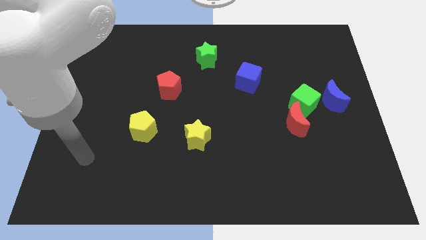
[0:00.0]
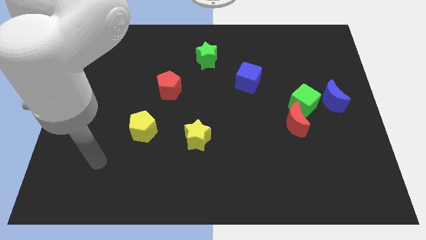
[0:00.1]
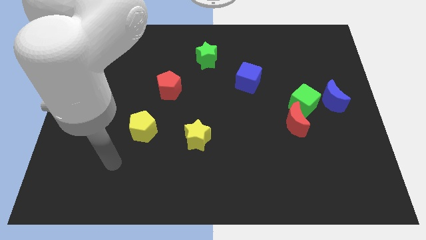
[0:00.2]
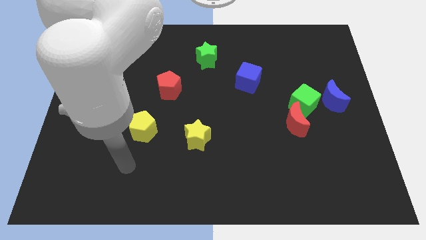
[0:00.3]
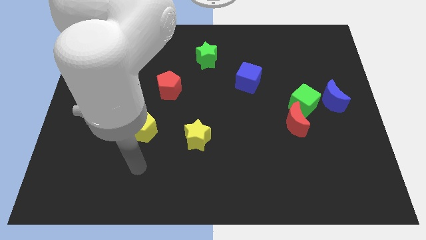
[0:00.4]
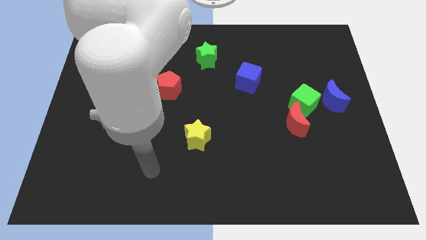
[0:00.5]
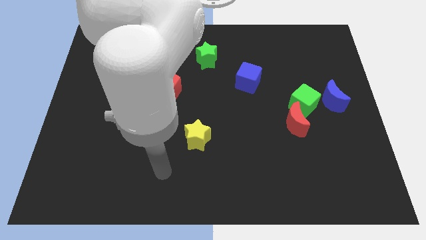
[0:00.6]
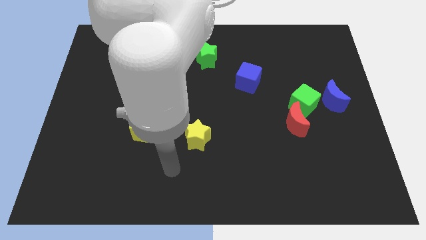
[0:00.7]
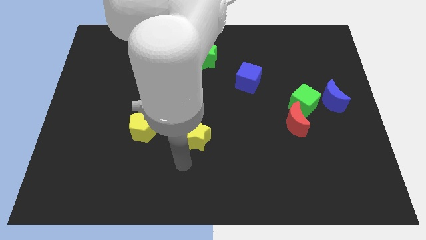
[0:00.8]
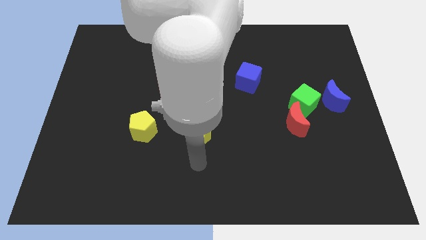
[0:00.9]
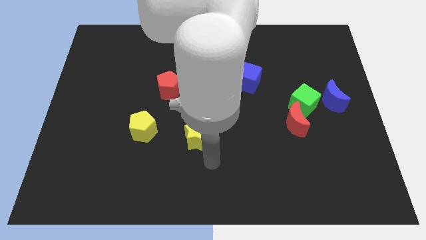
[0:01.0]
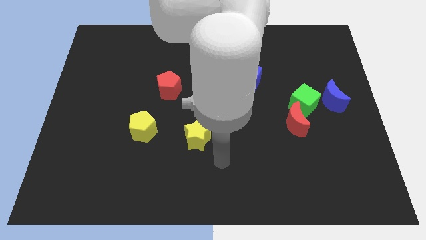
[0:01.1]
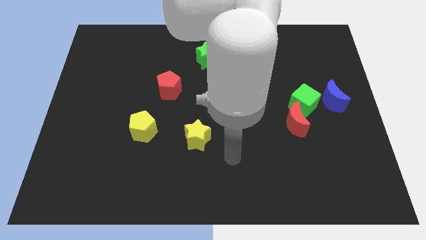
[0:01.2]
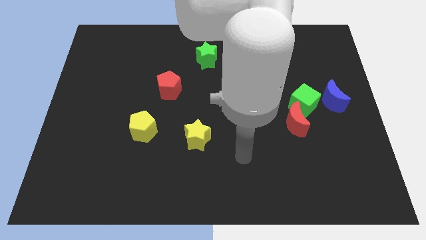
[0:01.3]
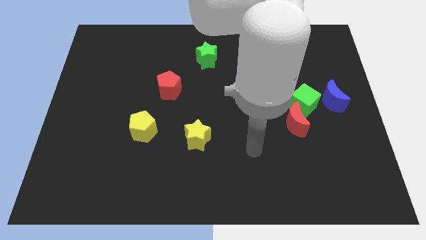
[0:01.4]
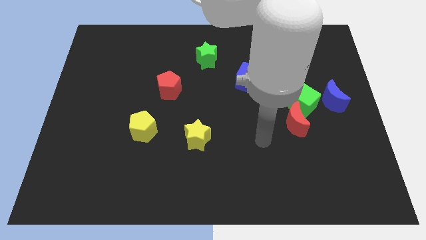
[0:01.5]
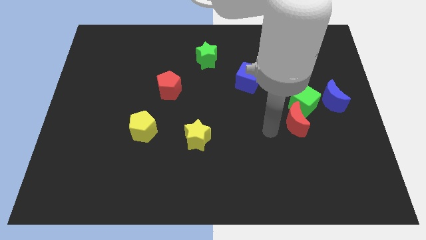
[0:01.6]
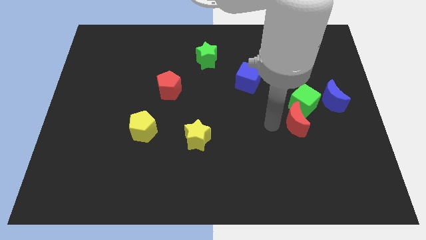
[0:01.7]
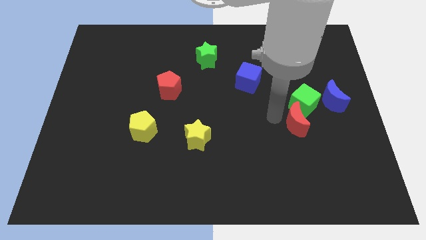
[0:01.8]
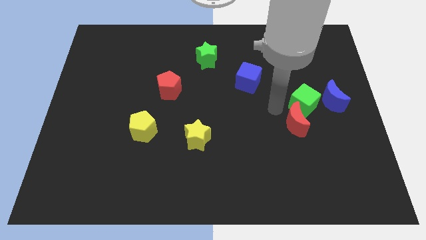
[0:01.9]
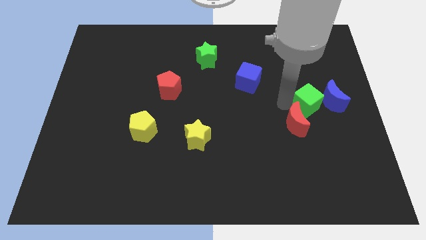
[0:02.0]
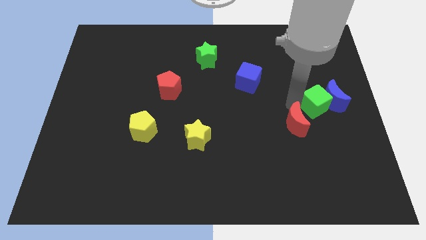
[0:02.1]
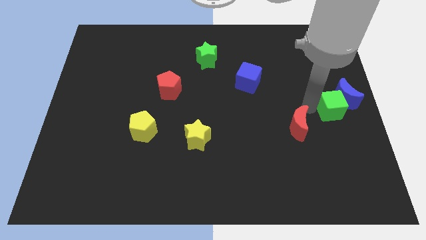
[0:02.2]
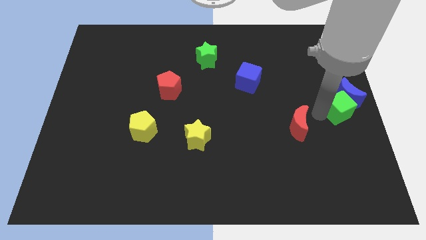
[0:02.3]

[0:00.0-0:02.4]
separate the red moon from the green cube

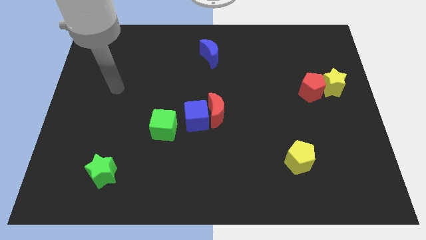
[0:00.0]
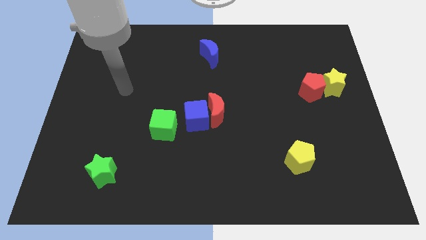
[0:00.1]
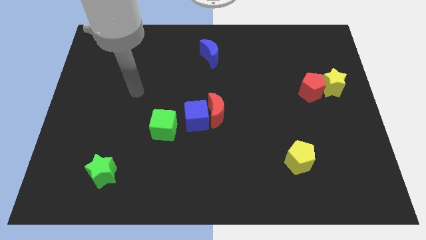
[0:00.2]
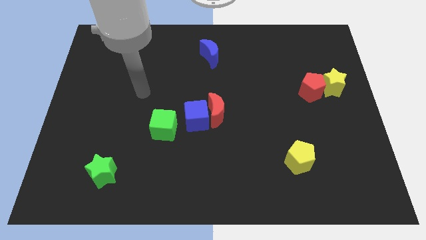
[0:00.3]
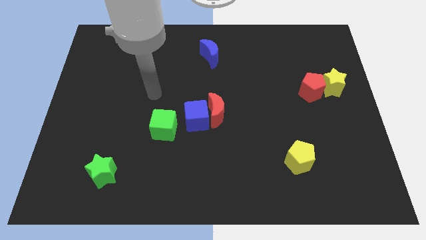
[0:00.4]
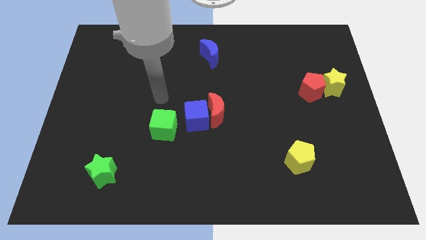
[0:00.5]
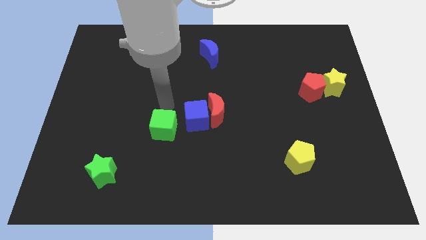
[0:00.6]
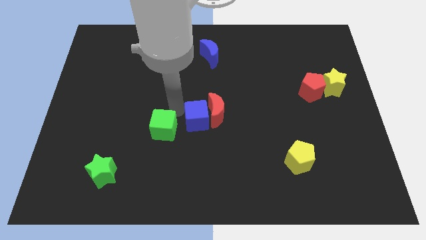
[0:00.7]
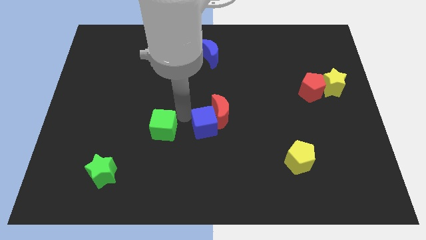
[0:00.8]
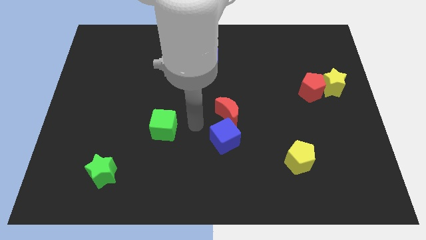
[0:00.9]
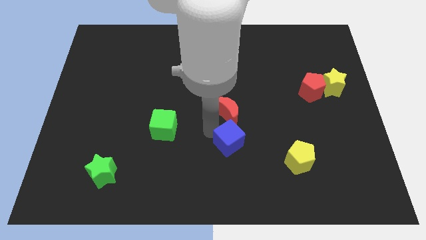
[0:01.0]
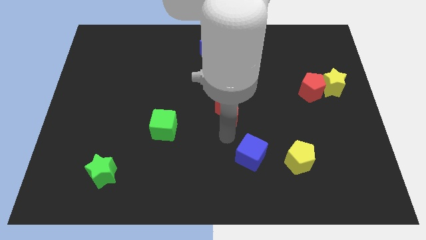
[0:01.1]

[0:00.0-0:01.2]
pull the red moon apart from the blue cube

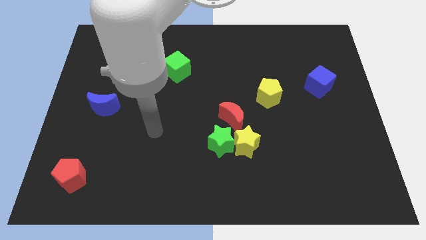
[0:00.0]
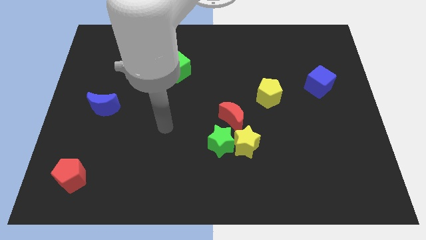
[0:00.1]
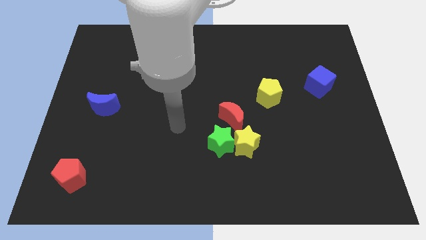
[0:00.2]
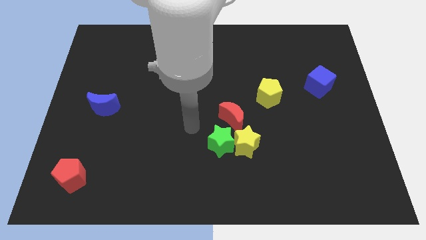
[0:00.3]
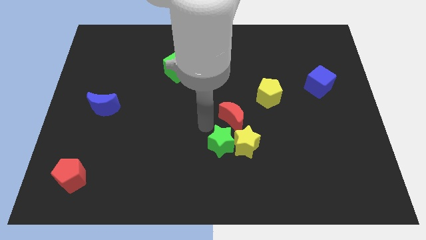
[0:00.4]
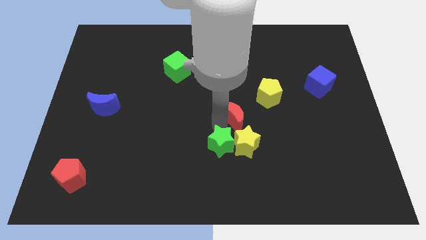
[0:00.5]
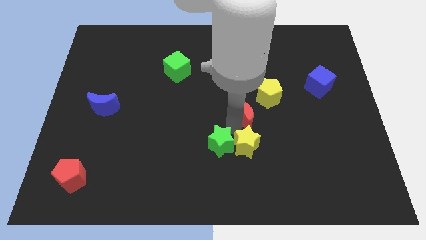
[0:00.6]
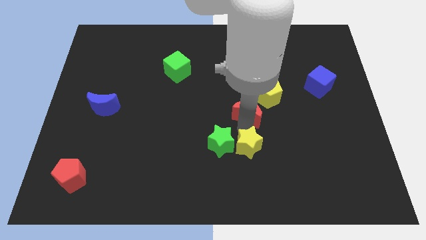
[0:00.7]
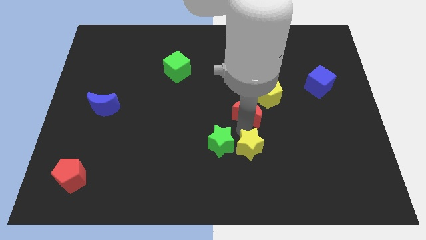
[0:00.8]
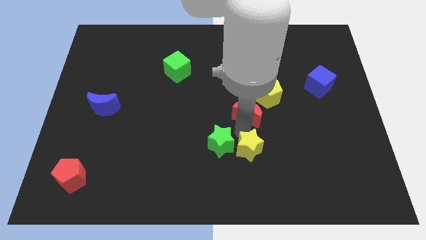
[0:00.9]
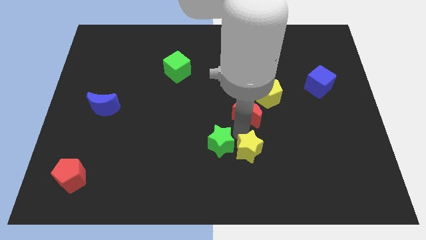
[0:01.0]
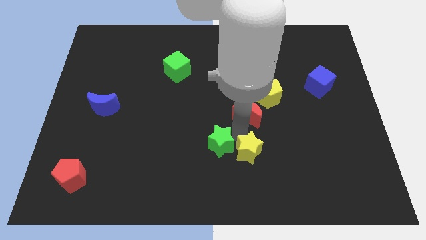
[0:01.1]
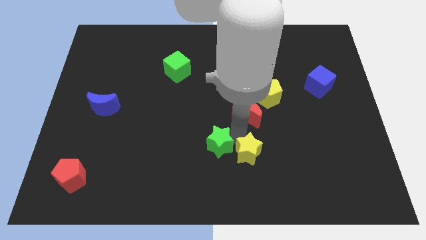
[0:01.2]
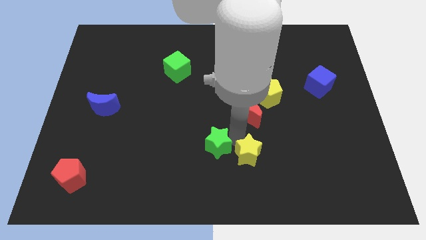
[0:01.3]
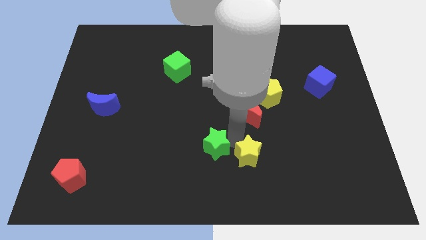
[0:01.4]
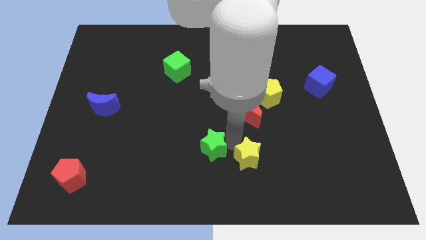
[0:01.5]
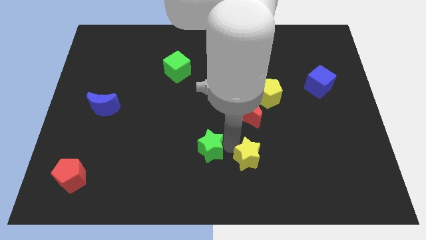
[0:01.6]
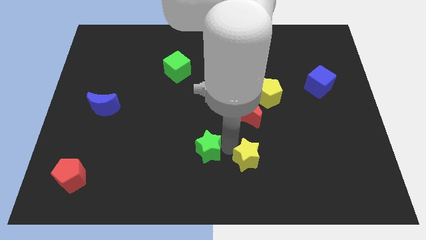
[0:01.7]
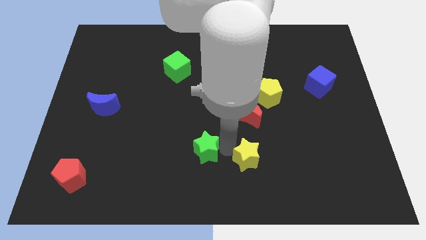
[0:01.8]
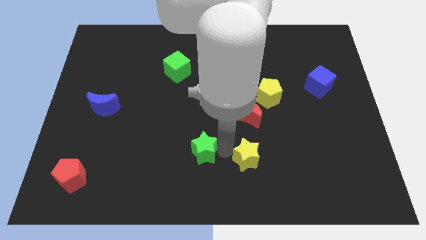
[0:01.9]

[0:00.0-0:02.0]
separate the green star from the yellow star and red moon

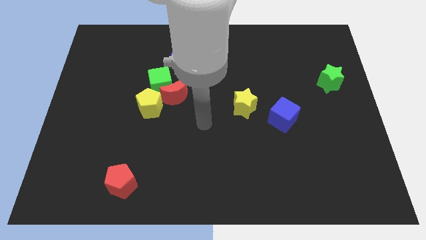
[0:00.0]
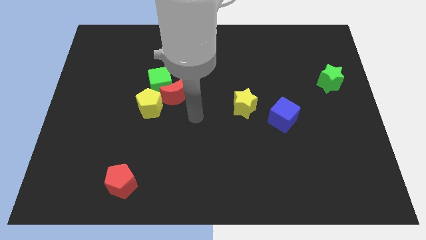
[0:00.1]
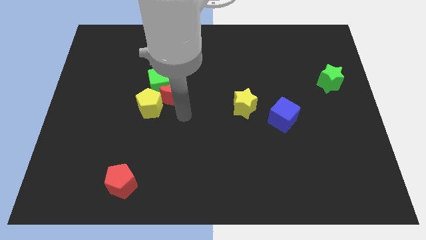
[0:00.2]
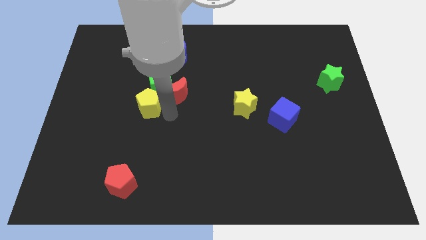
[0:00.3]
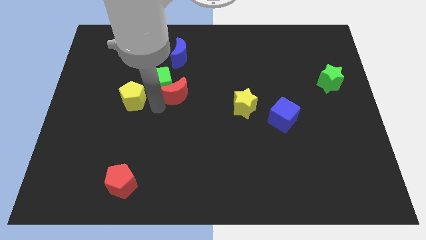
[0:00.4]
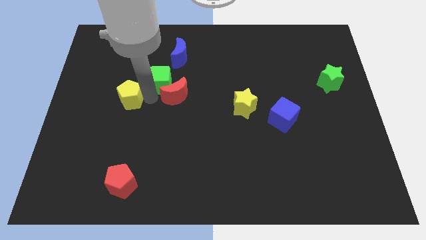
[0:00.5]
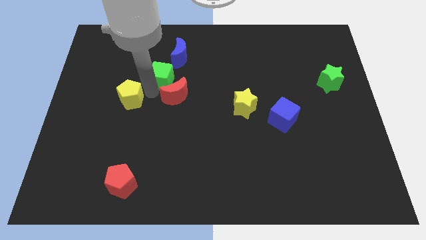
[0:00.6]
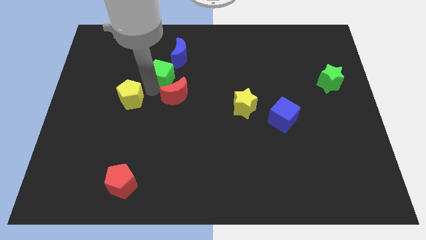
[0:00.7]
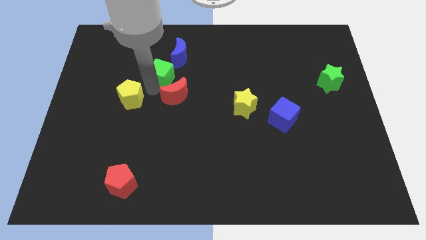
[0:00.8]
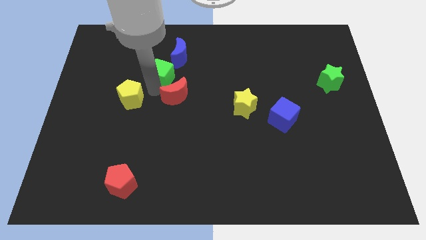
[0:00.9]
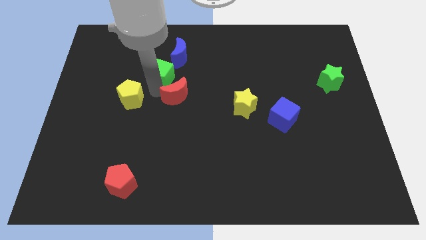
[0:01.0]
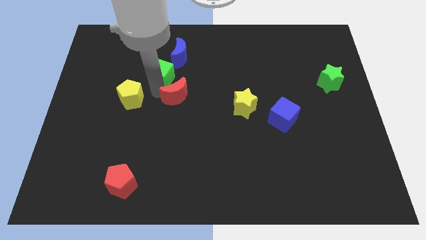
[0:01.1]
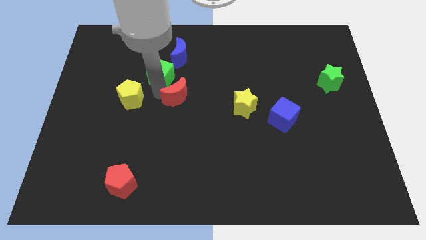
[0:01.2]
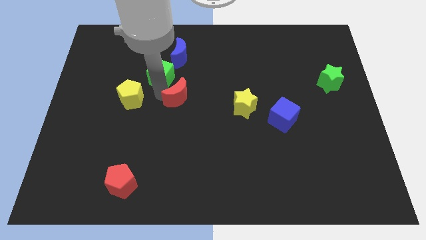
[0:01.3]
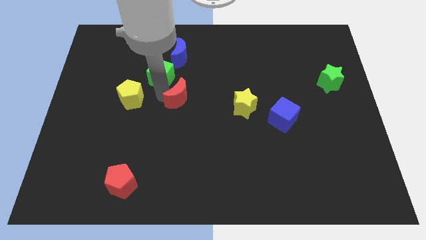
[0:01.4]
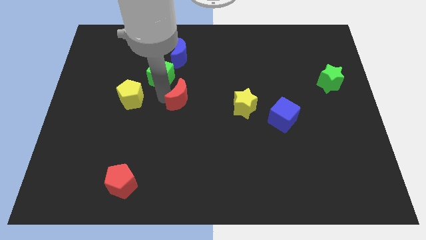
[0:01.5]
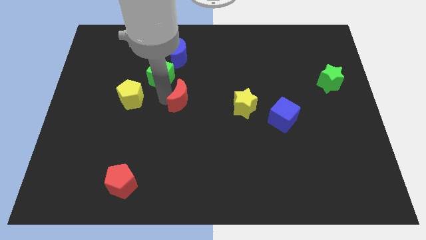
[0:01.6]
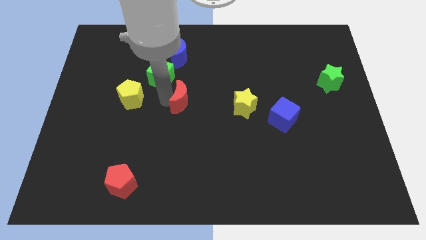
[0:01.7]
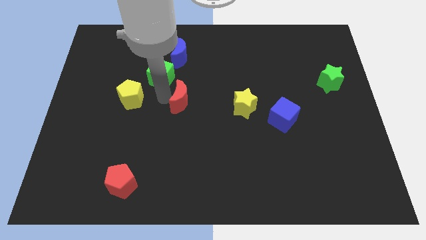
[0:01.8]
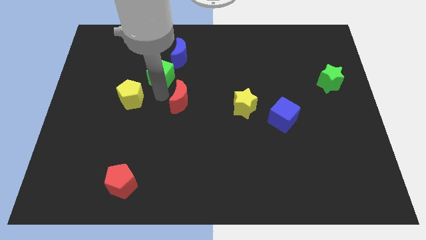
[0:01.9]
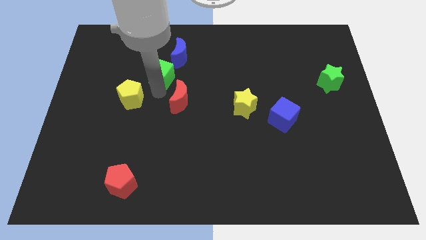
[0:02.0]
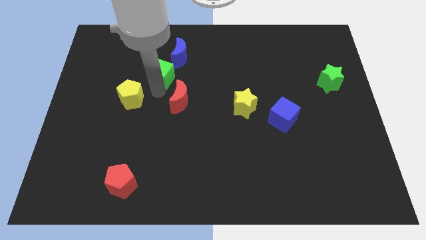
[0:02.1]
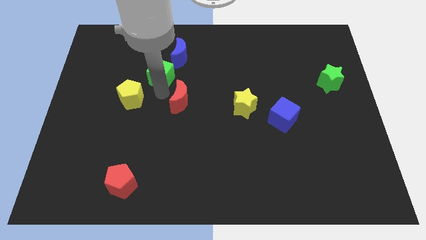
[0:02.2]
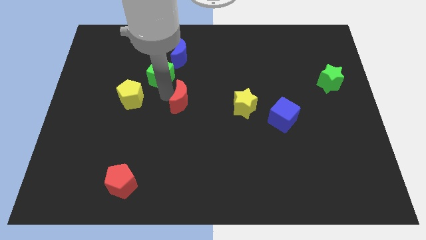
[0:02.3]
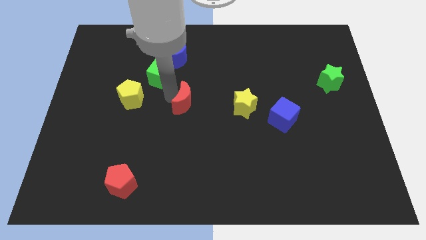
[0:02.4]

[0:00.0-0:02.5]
separate the red moon from the green cube and yellow pentagon

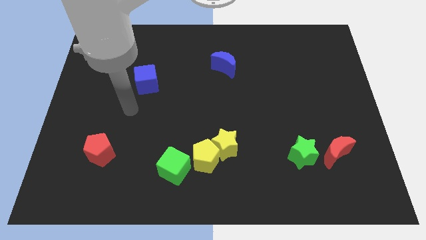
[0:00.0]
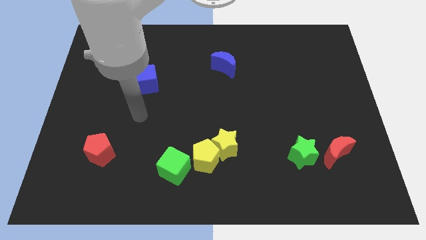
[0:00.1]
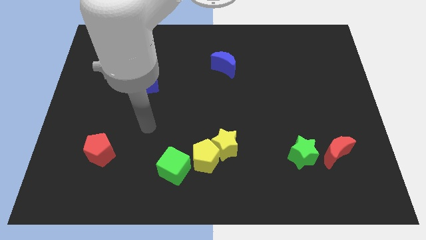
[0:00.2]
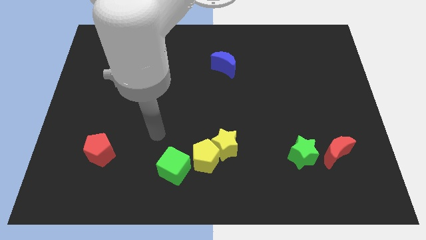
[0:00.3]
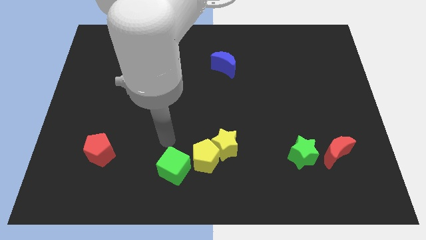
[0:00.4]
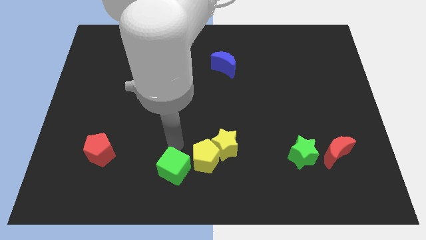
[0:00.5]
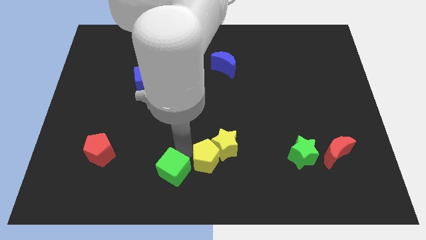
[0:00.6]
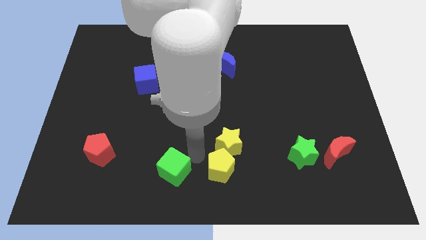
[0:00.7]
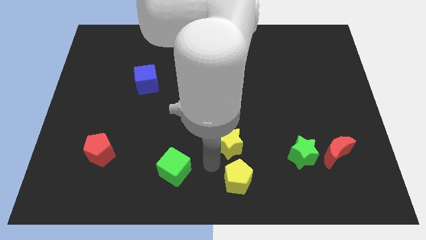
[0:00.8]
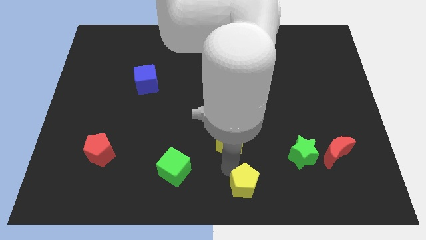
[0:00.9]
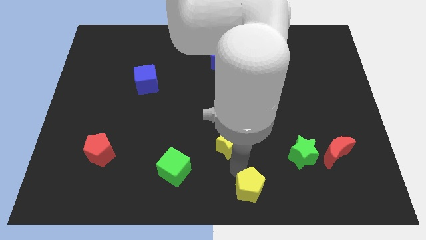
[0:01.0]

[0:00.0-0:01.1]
separate the yellow star from the yellow pentagon
